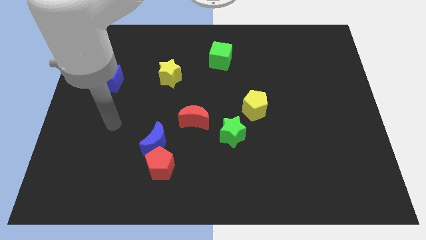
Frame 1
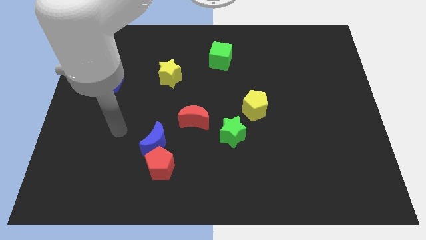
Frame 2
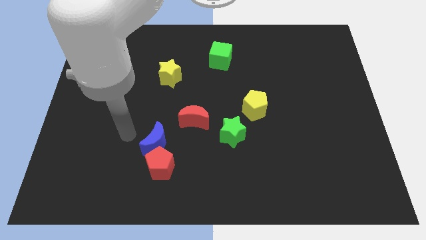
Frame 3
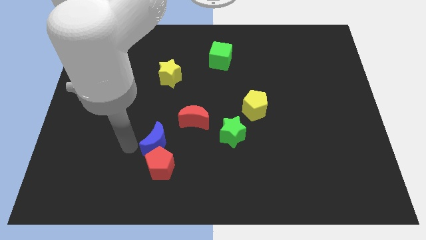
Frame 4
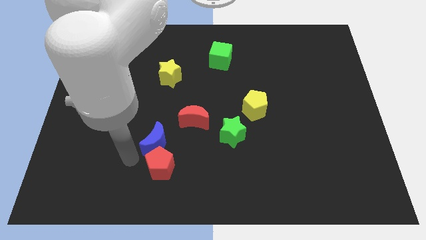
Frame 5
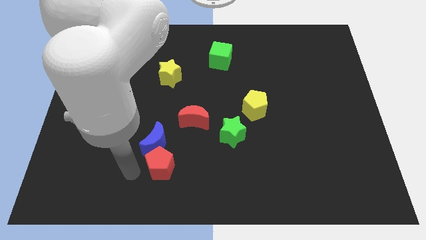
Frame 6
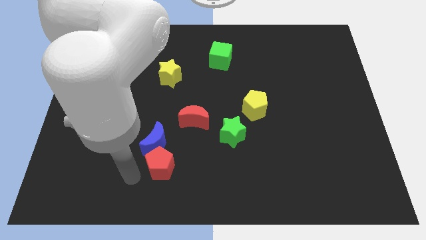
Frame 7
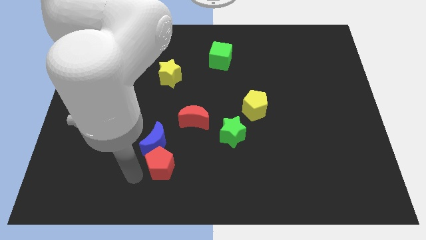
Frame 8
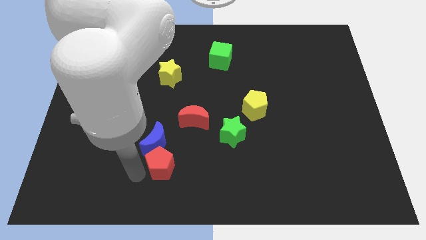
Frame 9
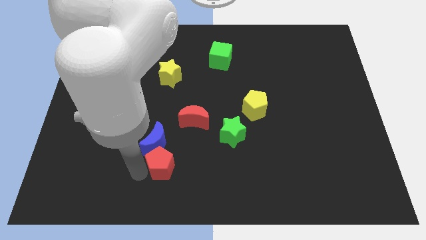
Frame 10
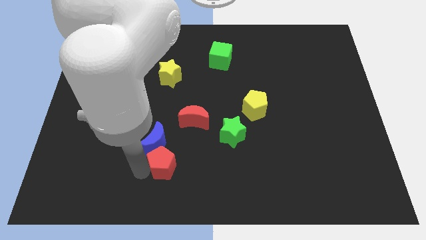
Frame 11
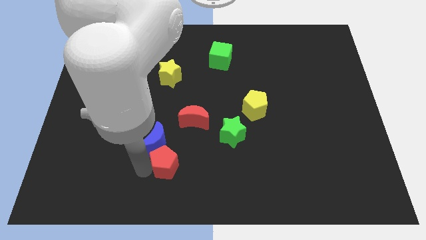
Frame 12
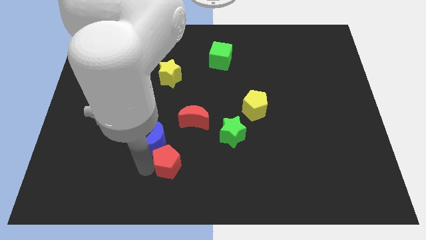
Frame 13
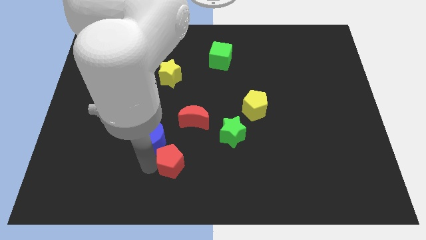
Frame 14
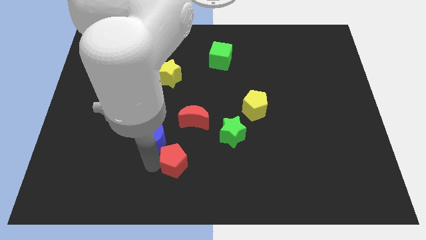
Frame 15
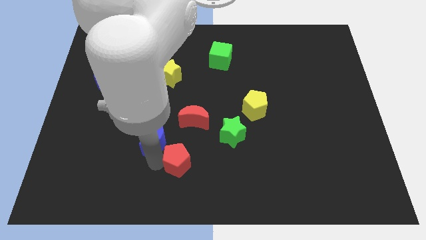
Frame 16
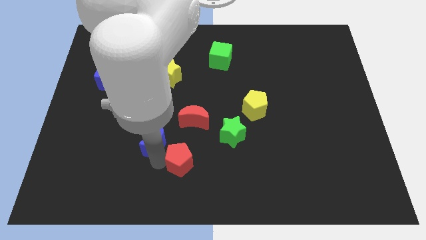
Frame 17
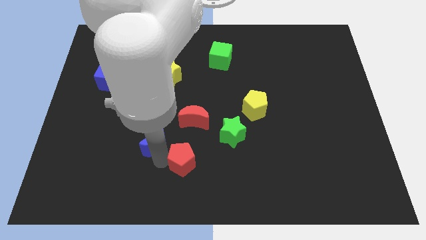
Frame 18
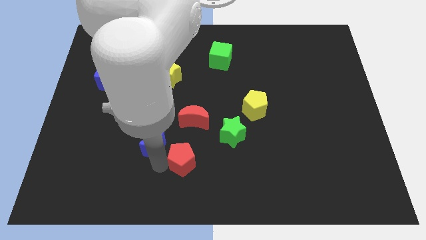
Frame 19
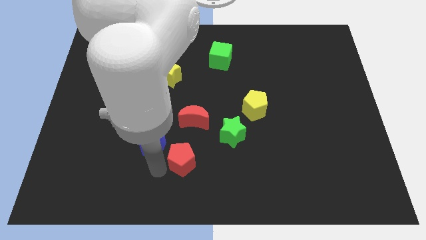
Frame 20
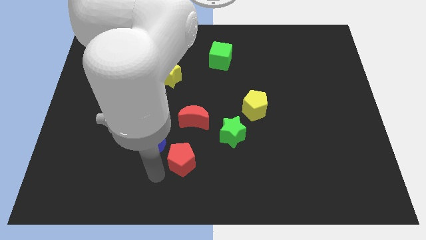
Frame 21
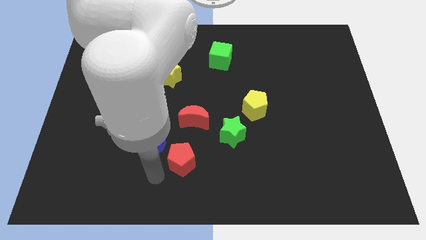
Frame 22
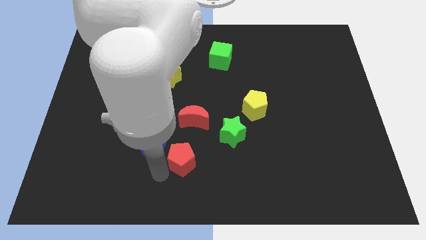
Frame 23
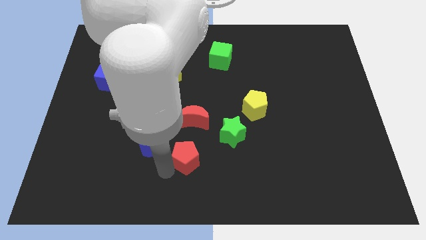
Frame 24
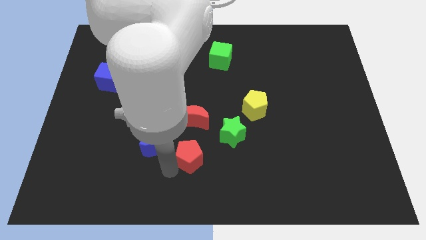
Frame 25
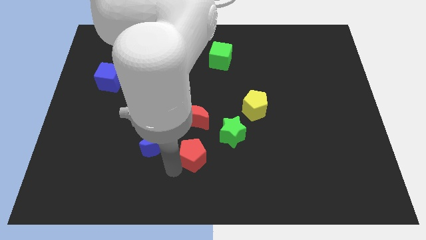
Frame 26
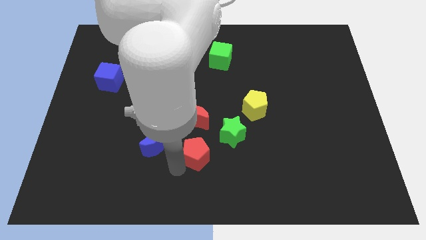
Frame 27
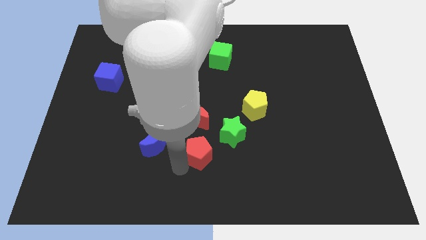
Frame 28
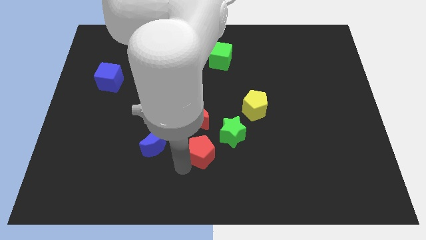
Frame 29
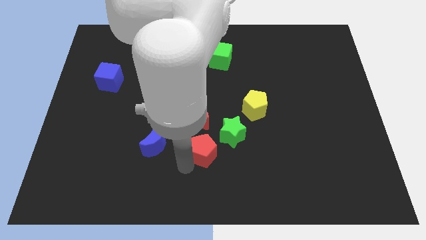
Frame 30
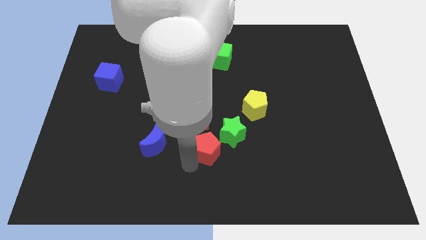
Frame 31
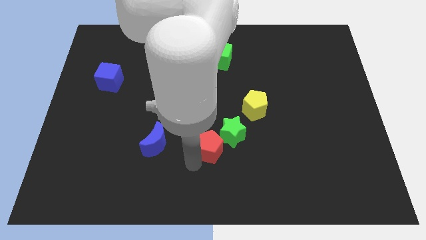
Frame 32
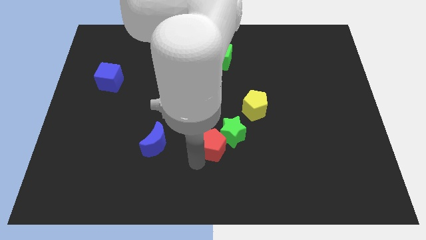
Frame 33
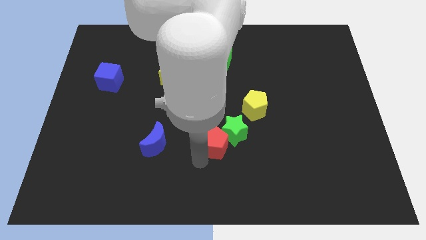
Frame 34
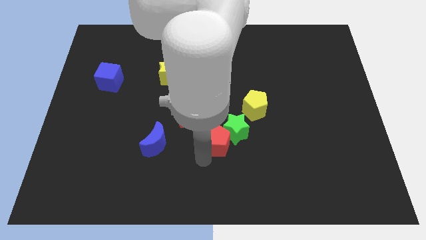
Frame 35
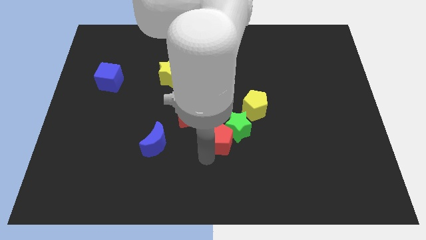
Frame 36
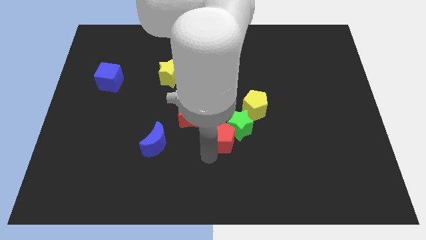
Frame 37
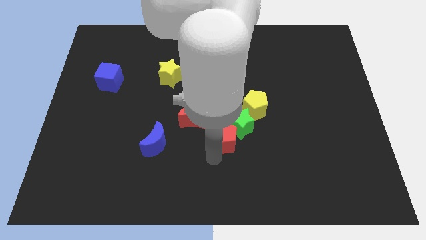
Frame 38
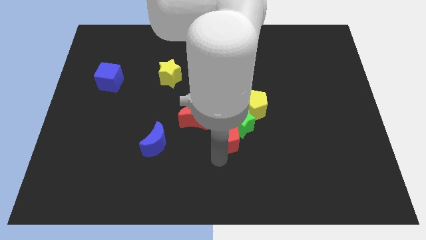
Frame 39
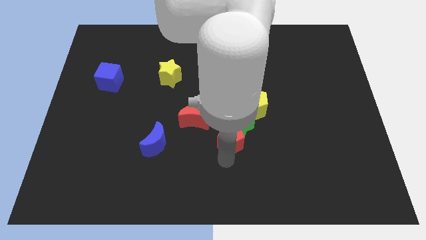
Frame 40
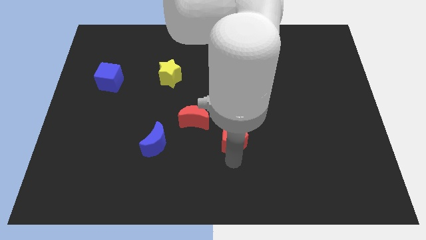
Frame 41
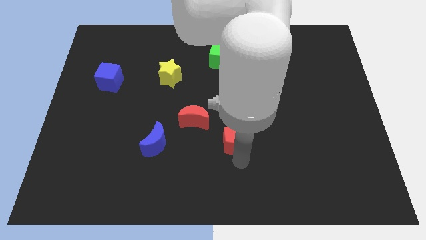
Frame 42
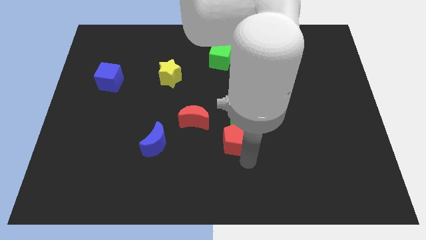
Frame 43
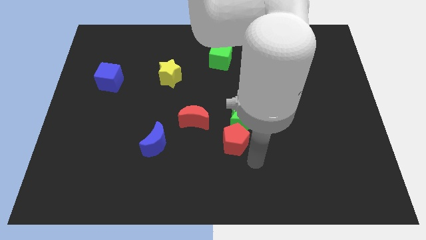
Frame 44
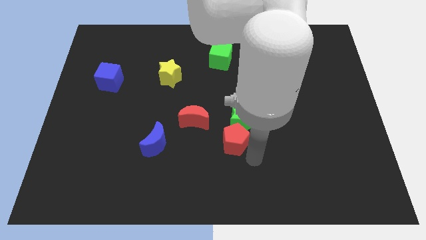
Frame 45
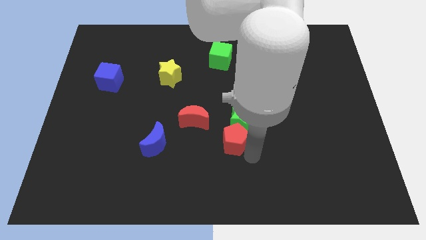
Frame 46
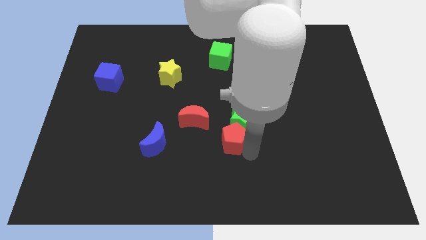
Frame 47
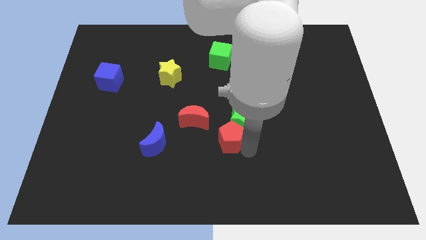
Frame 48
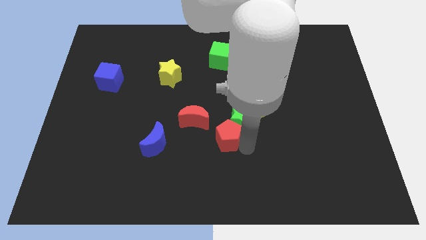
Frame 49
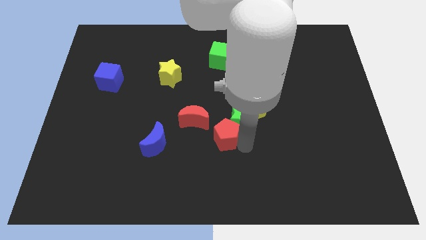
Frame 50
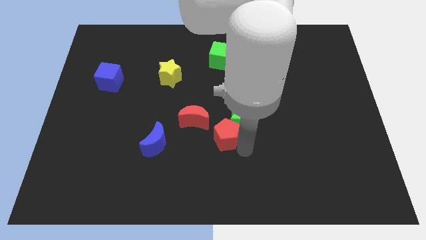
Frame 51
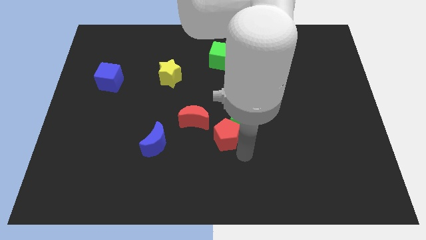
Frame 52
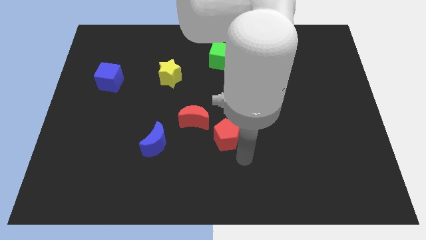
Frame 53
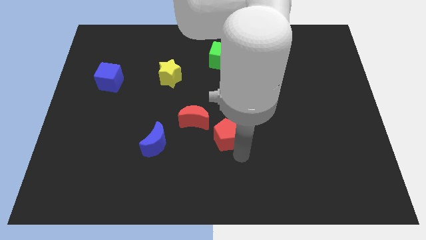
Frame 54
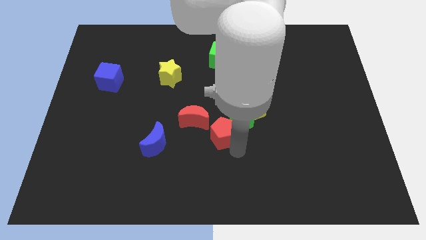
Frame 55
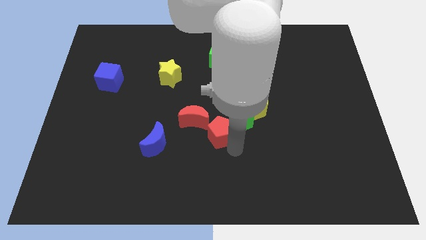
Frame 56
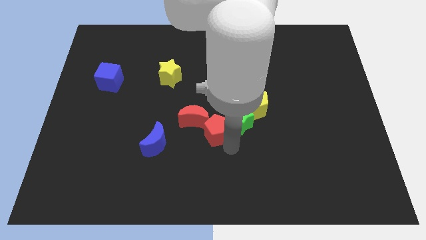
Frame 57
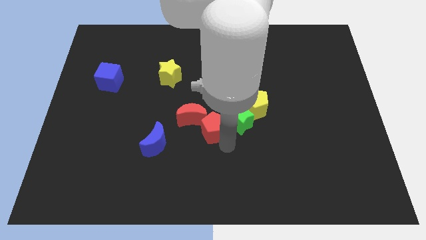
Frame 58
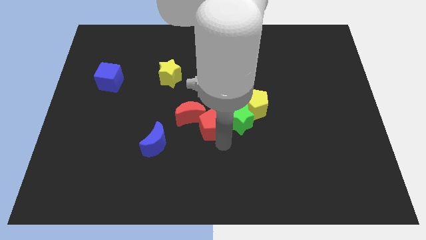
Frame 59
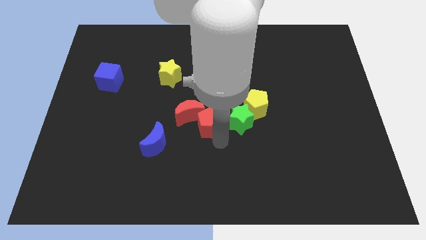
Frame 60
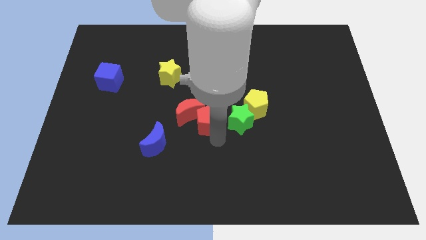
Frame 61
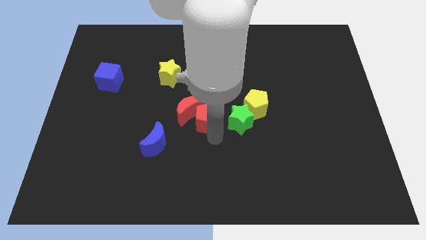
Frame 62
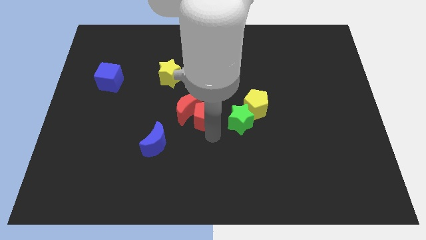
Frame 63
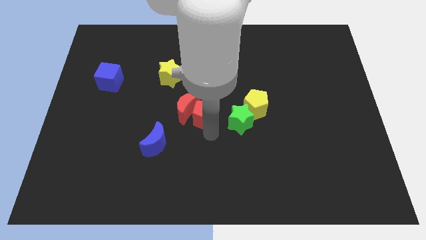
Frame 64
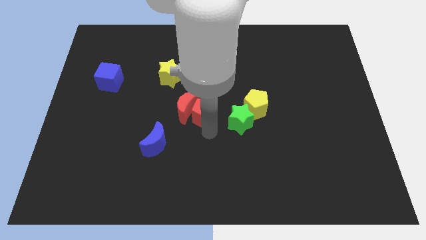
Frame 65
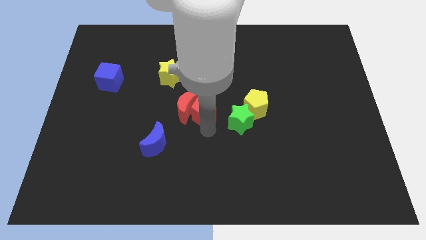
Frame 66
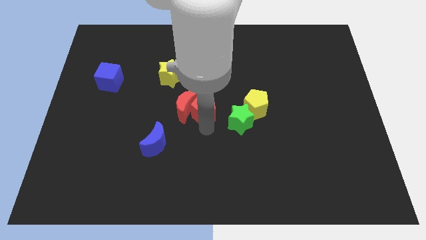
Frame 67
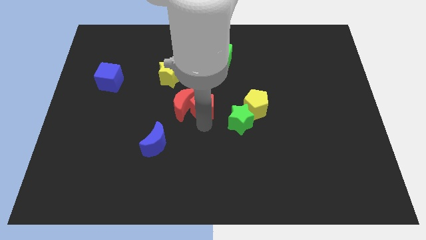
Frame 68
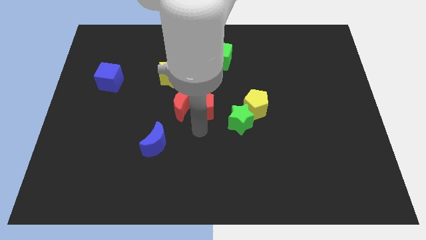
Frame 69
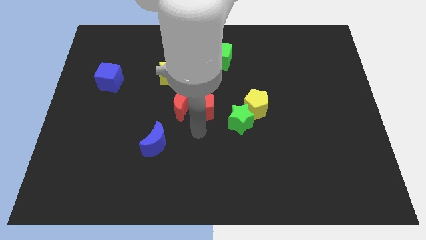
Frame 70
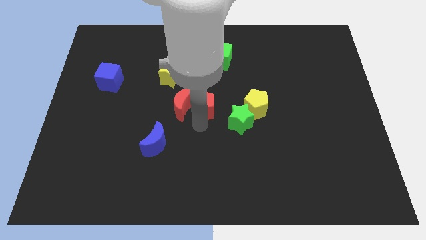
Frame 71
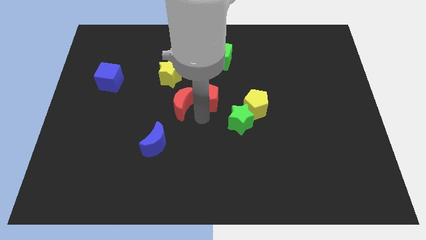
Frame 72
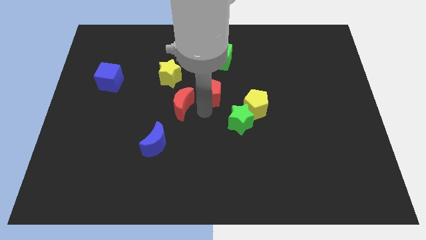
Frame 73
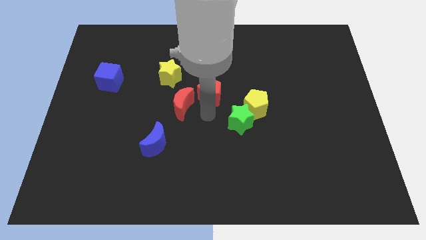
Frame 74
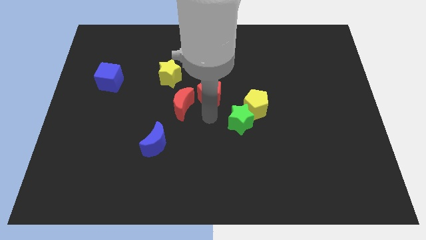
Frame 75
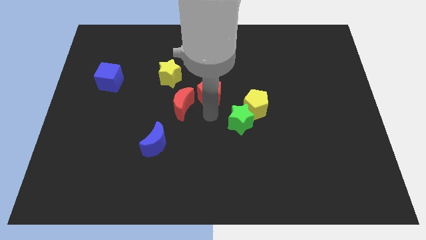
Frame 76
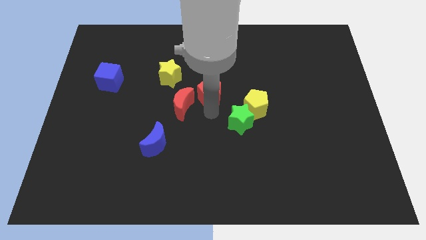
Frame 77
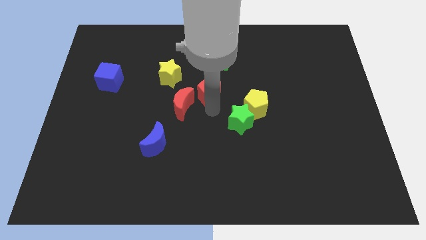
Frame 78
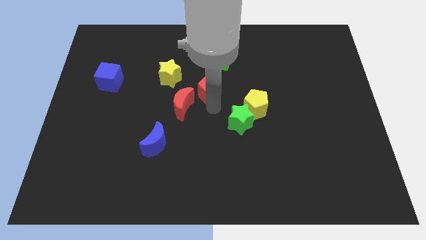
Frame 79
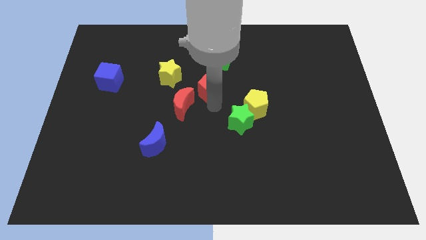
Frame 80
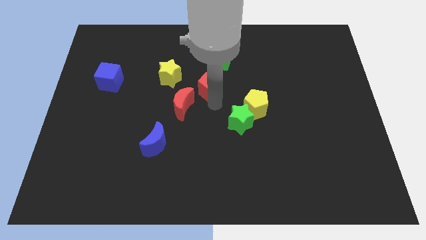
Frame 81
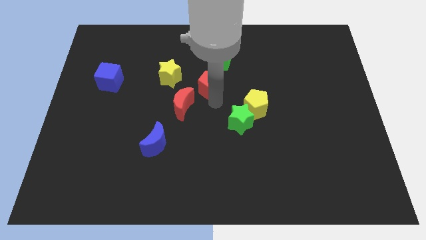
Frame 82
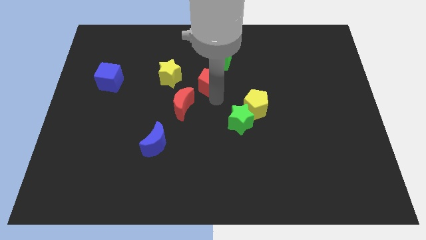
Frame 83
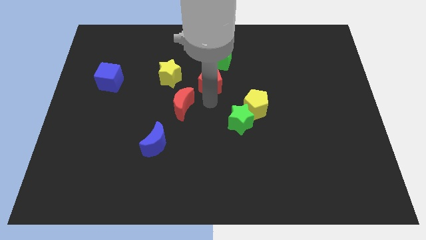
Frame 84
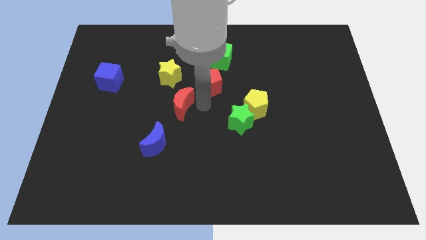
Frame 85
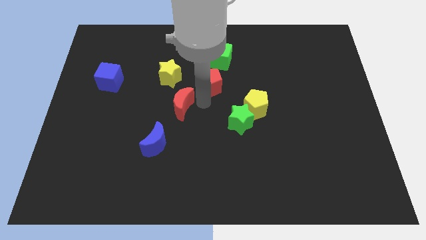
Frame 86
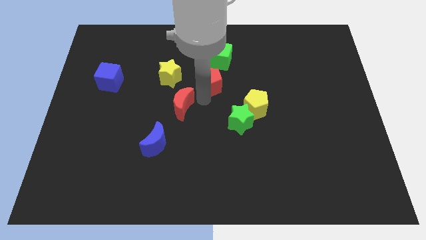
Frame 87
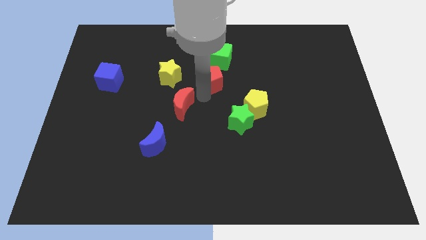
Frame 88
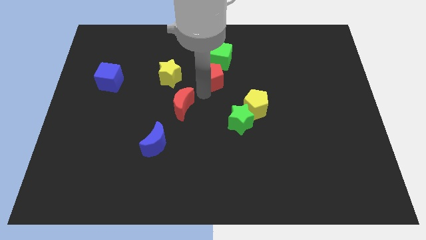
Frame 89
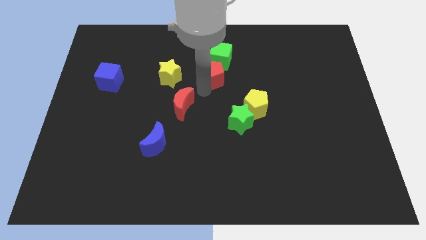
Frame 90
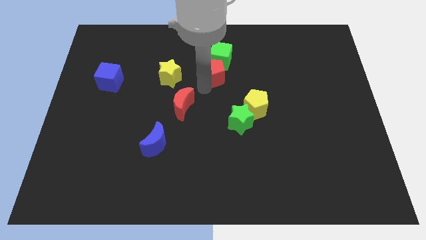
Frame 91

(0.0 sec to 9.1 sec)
slide the red pentagon next to the green cube
